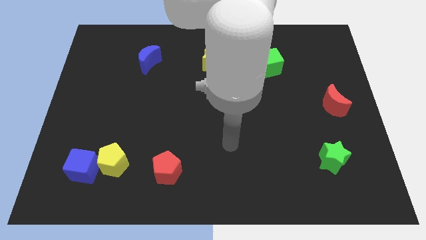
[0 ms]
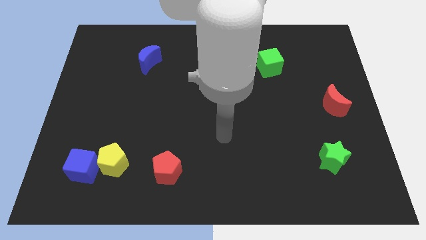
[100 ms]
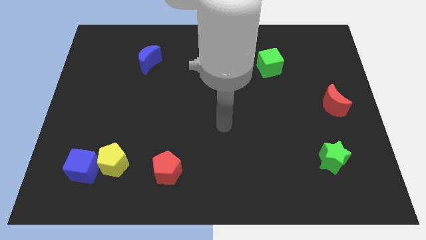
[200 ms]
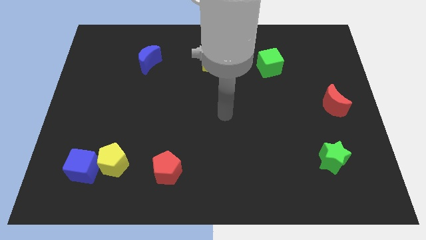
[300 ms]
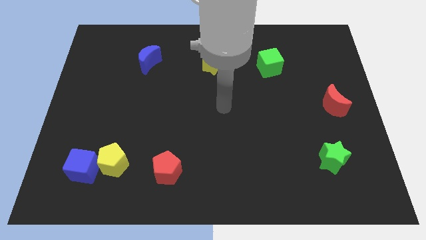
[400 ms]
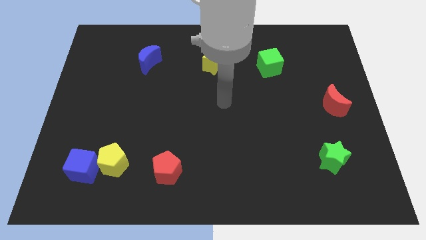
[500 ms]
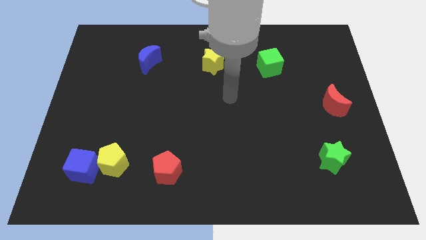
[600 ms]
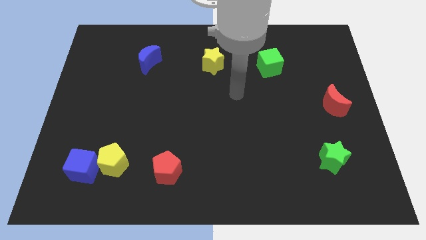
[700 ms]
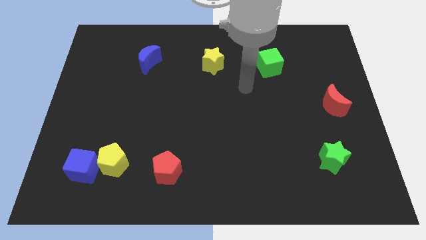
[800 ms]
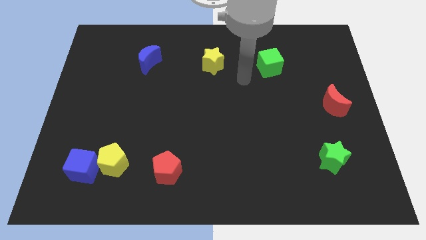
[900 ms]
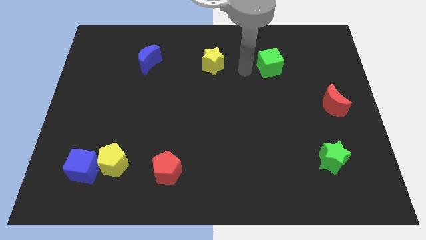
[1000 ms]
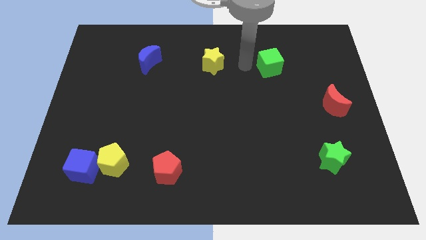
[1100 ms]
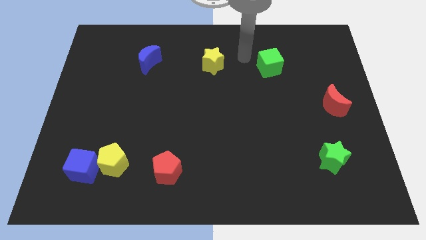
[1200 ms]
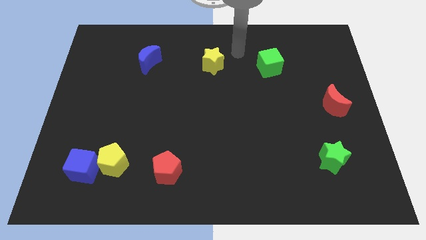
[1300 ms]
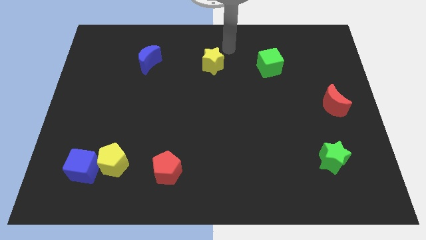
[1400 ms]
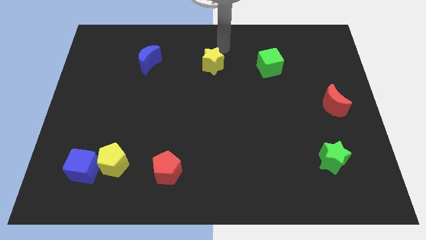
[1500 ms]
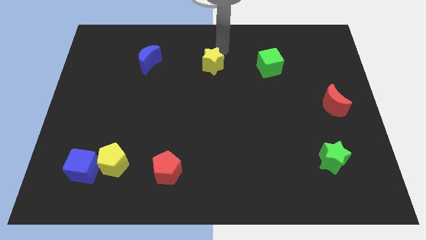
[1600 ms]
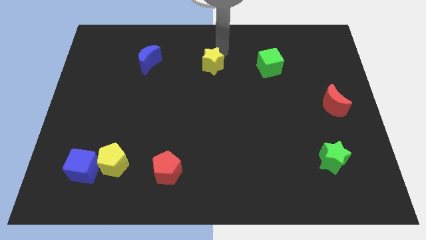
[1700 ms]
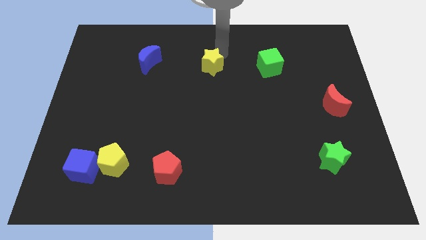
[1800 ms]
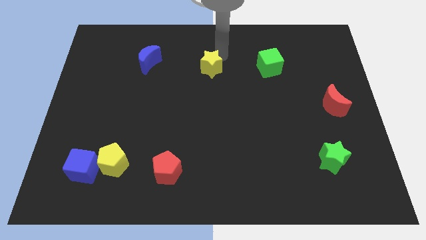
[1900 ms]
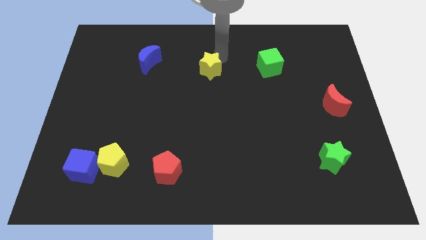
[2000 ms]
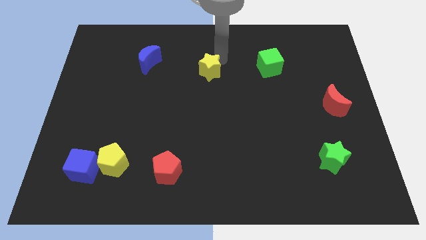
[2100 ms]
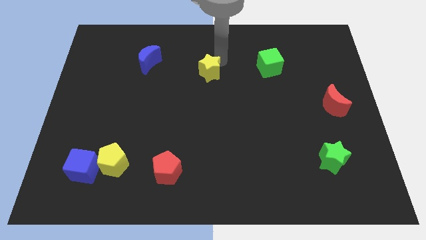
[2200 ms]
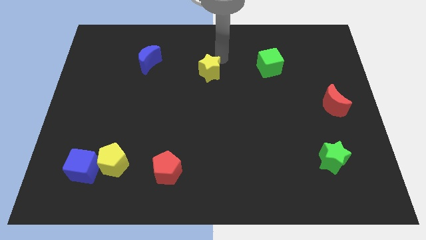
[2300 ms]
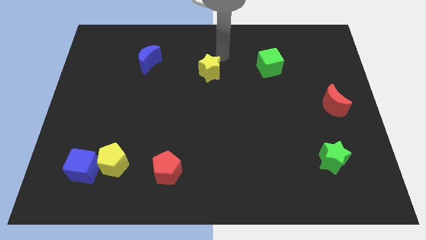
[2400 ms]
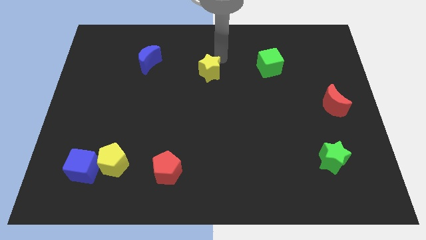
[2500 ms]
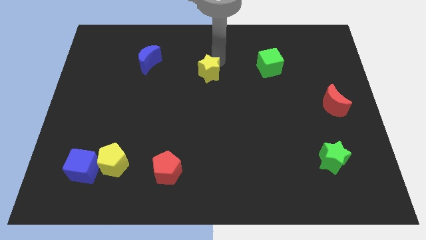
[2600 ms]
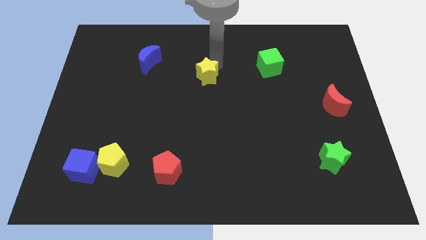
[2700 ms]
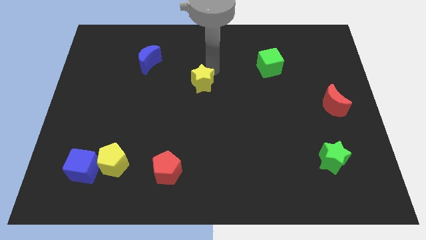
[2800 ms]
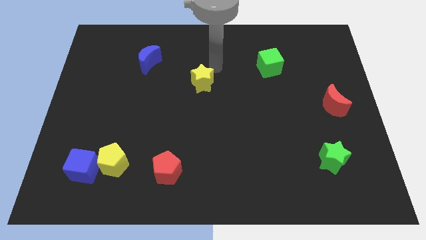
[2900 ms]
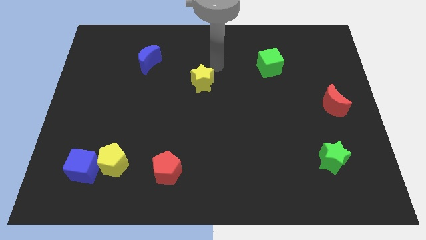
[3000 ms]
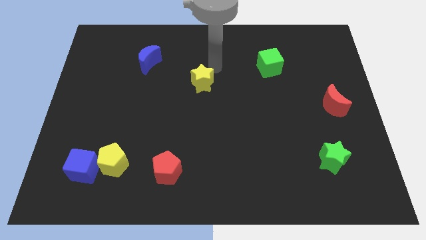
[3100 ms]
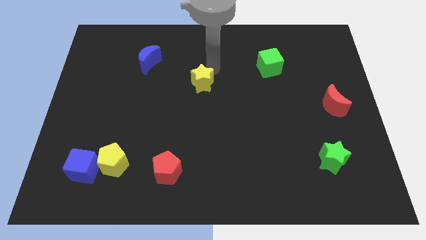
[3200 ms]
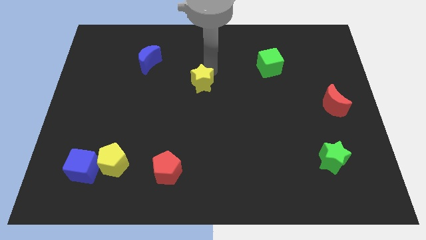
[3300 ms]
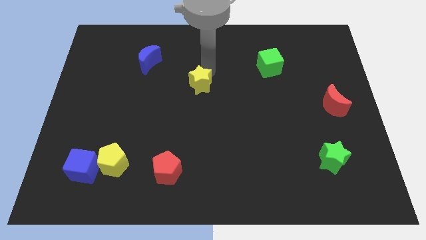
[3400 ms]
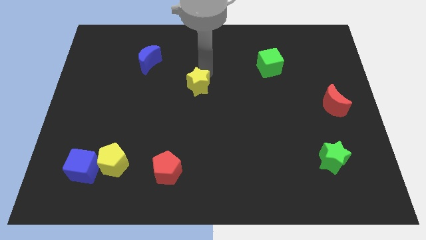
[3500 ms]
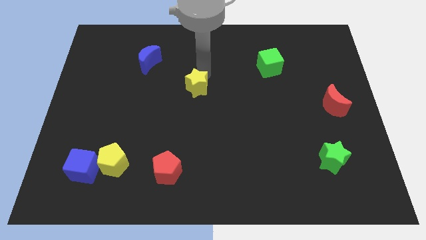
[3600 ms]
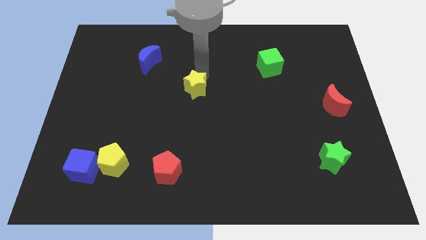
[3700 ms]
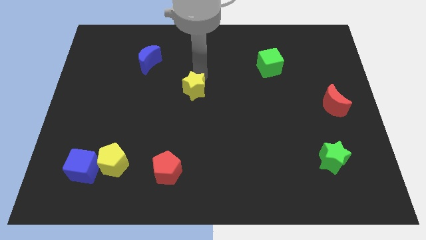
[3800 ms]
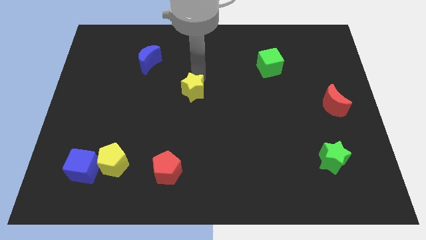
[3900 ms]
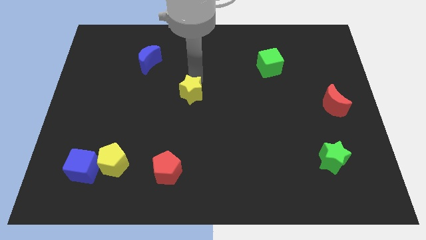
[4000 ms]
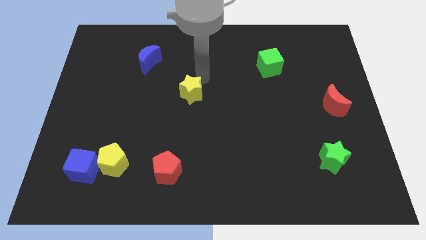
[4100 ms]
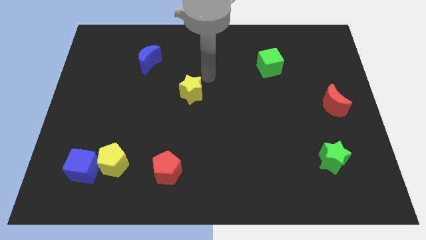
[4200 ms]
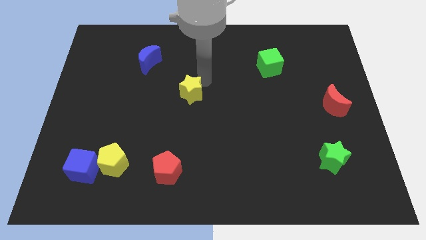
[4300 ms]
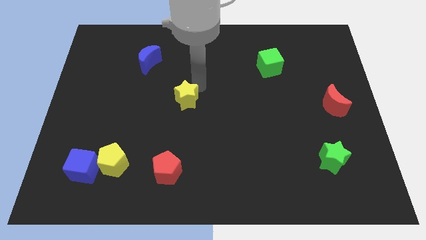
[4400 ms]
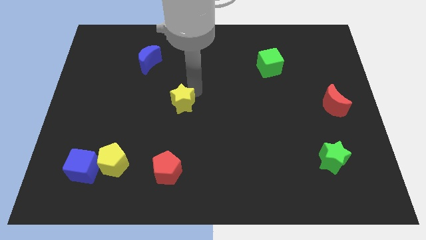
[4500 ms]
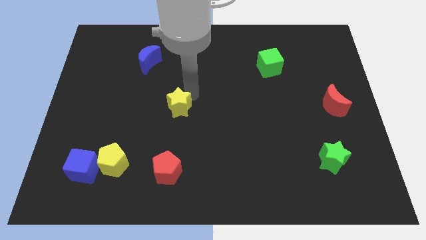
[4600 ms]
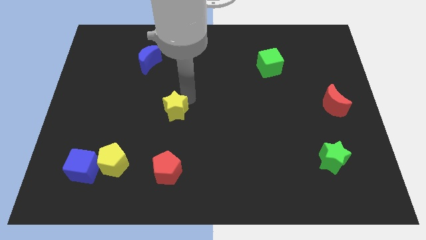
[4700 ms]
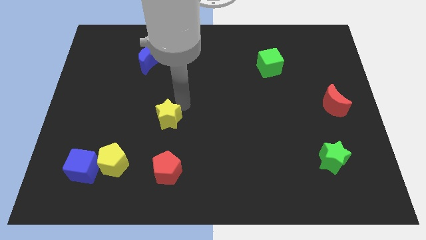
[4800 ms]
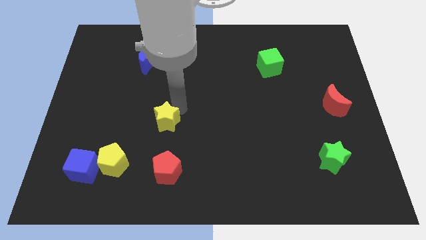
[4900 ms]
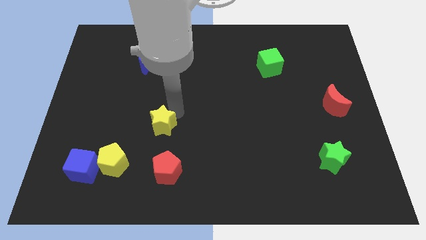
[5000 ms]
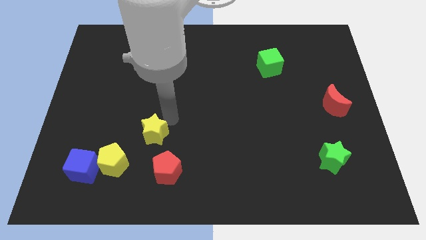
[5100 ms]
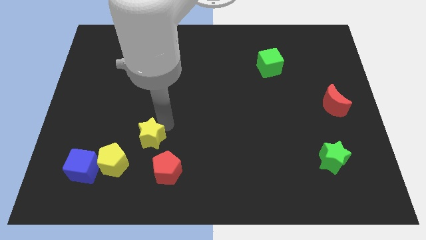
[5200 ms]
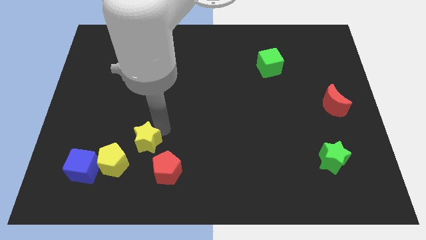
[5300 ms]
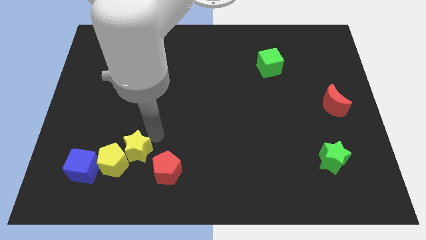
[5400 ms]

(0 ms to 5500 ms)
push the yellow star towards the yellow pentagon

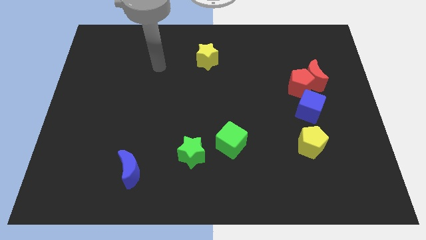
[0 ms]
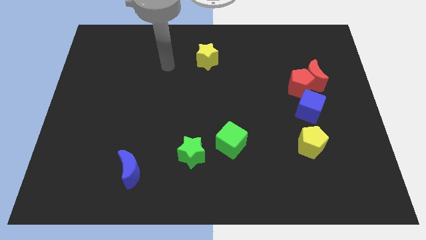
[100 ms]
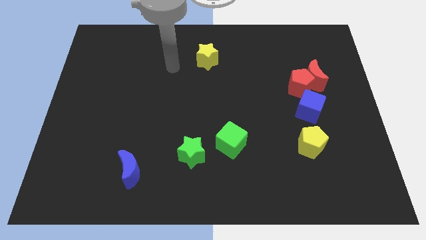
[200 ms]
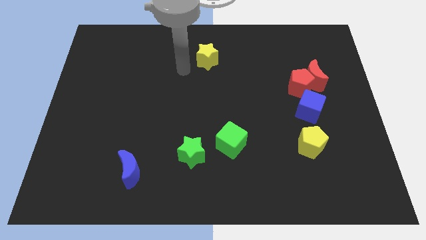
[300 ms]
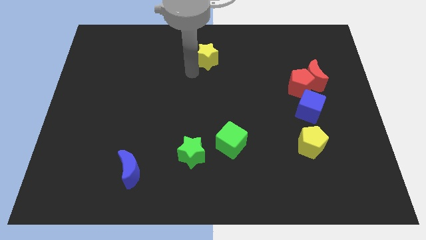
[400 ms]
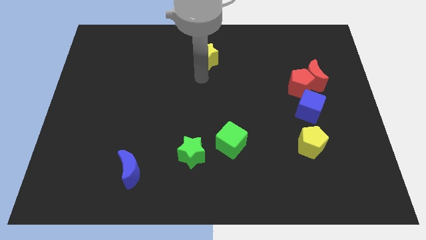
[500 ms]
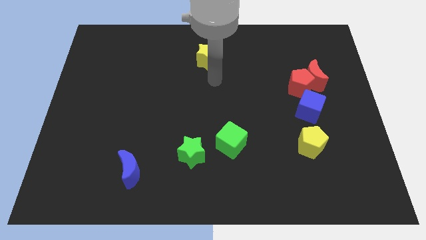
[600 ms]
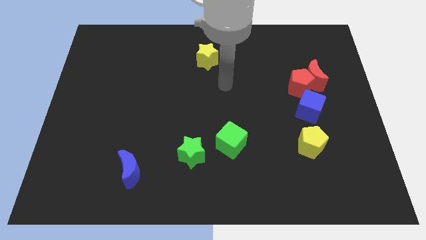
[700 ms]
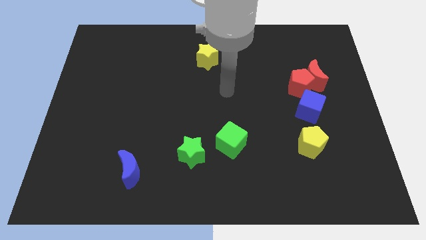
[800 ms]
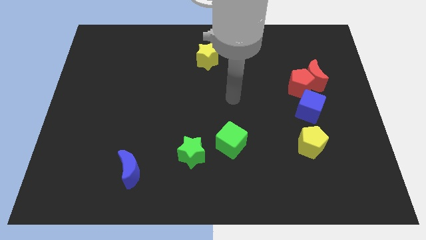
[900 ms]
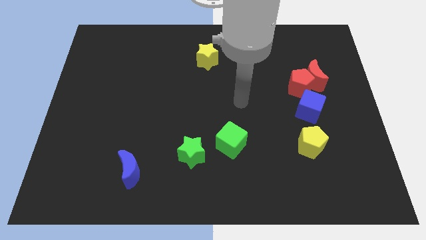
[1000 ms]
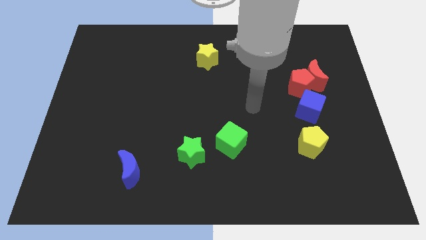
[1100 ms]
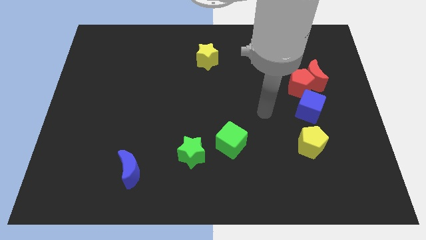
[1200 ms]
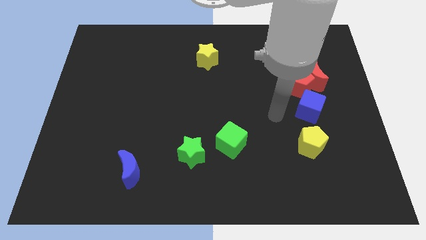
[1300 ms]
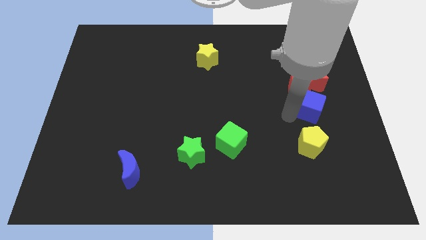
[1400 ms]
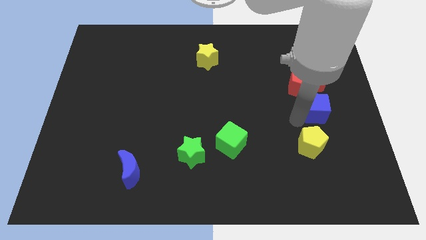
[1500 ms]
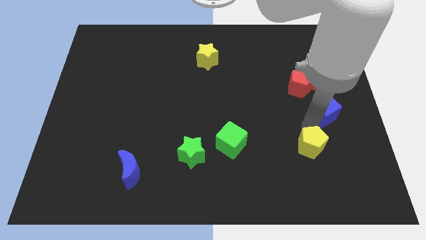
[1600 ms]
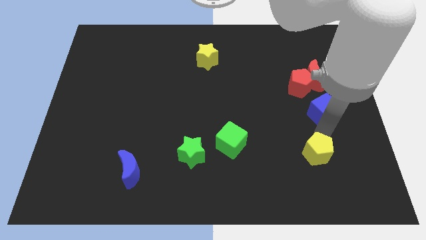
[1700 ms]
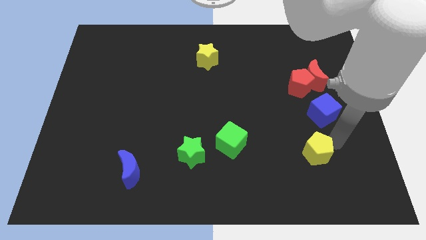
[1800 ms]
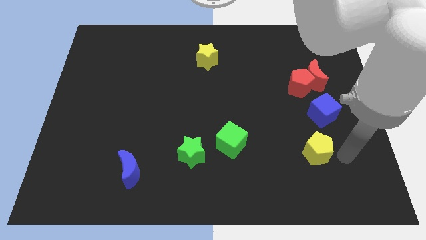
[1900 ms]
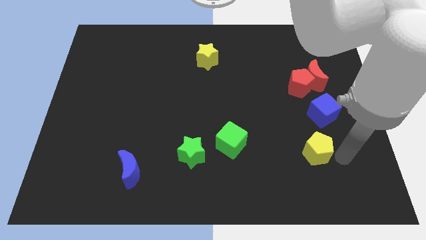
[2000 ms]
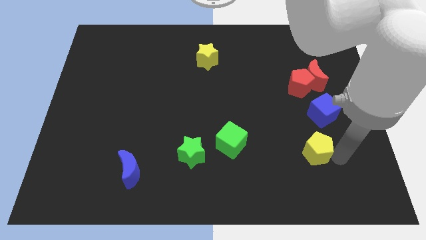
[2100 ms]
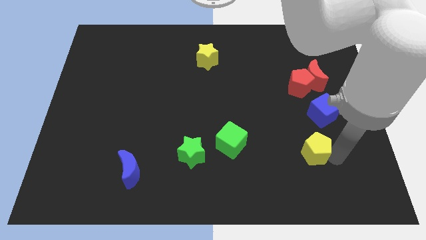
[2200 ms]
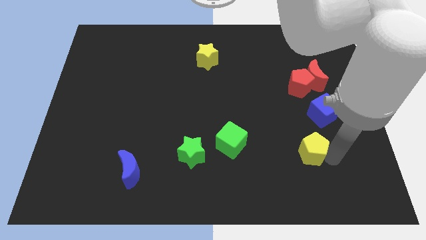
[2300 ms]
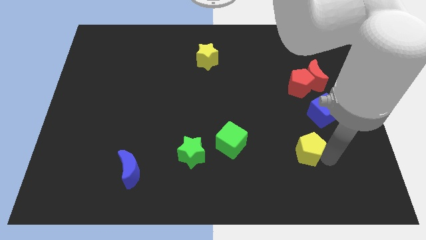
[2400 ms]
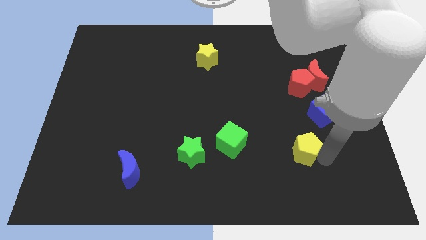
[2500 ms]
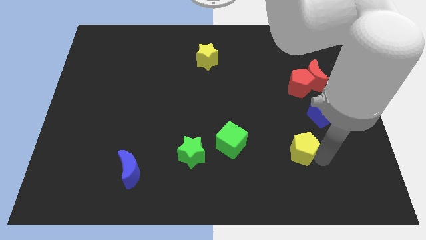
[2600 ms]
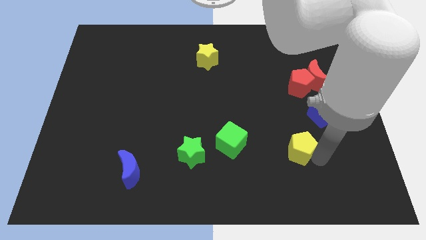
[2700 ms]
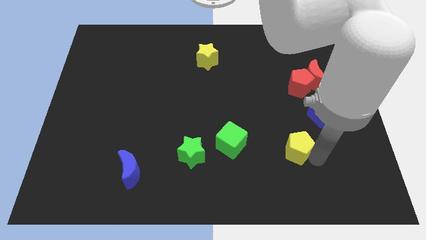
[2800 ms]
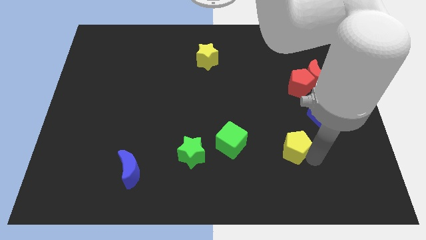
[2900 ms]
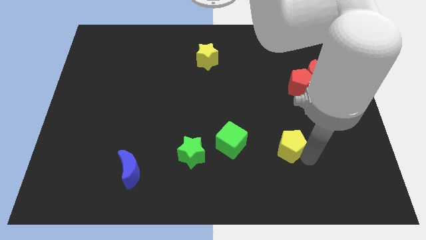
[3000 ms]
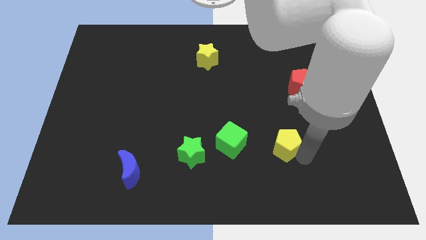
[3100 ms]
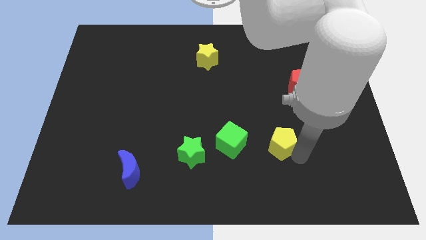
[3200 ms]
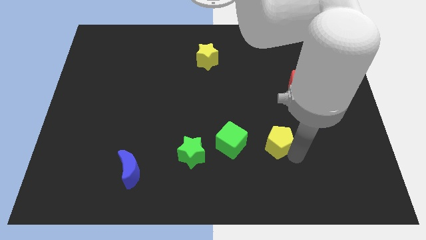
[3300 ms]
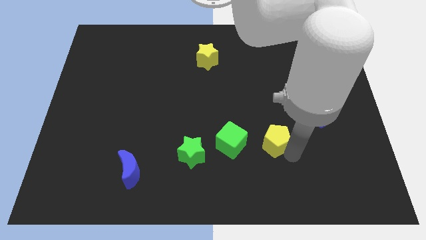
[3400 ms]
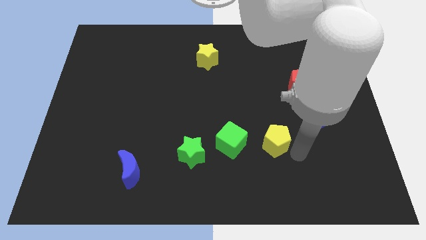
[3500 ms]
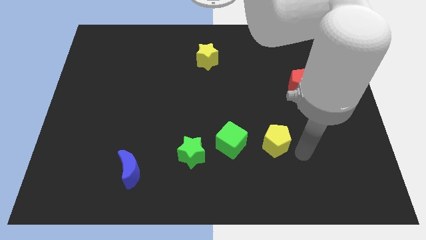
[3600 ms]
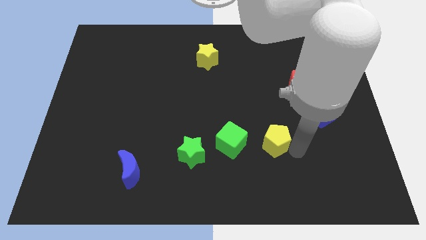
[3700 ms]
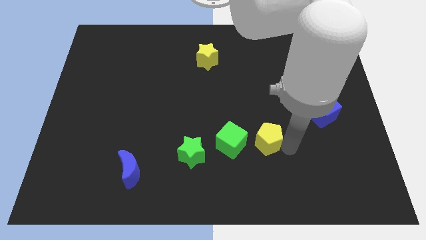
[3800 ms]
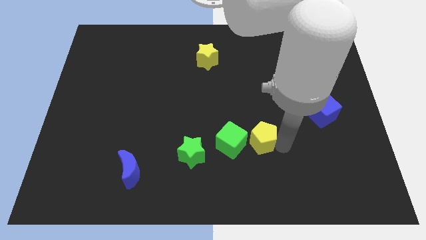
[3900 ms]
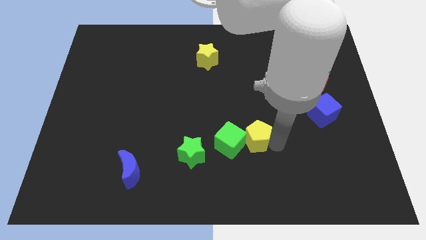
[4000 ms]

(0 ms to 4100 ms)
move the yellow pentagon to the green cube
